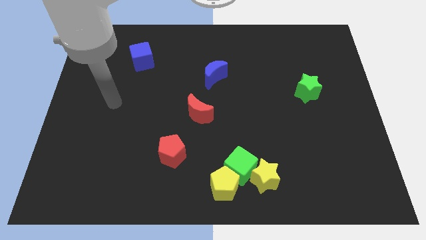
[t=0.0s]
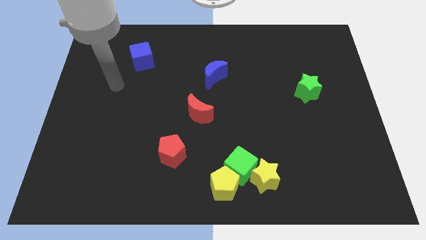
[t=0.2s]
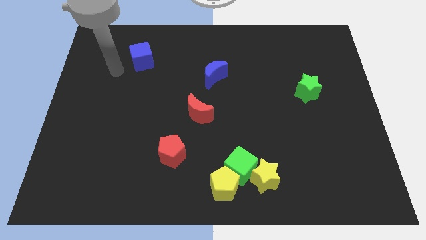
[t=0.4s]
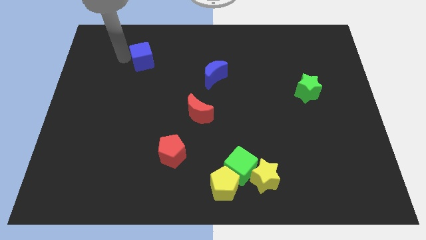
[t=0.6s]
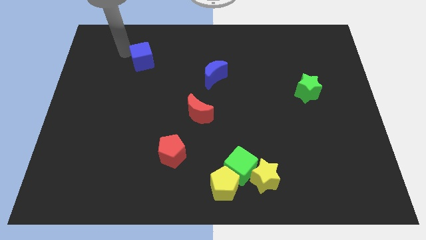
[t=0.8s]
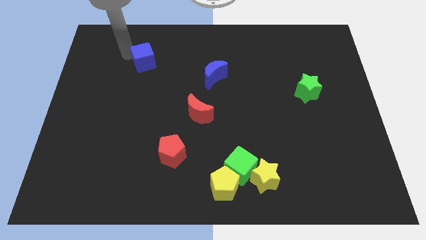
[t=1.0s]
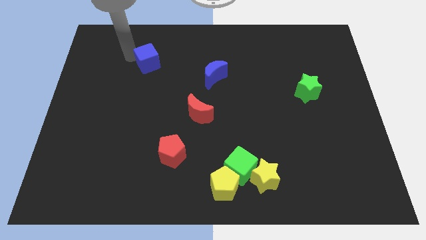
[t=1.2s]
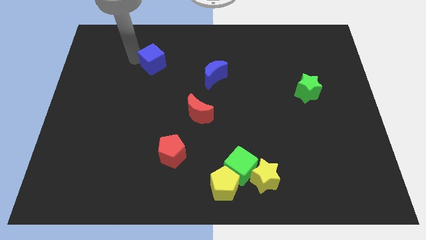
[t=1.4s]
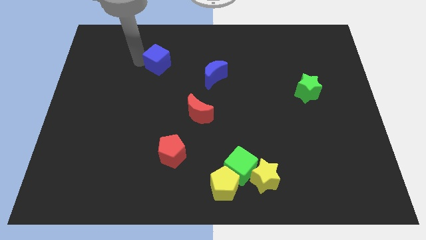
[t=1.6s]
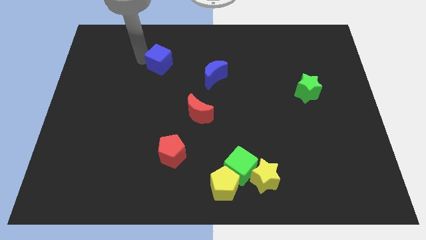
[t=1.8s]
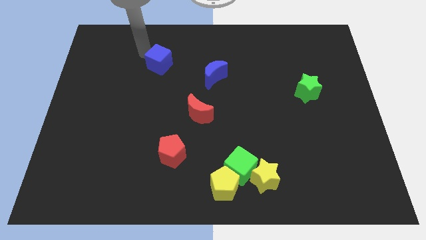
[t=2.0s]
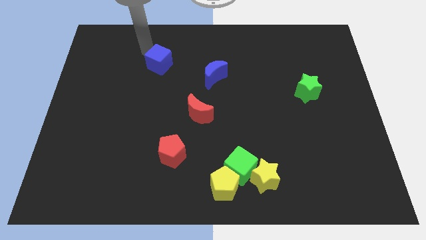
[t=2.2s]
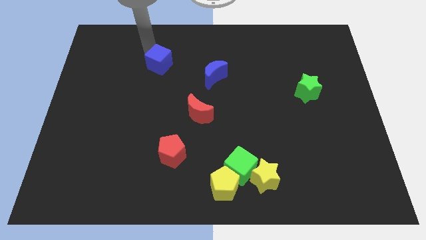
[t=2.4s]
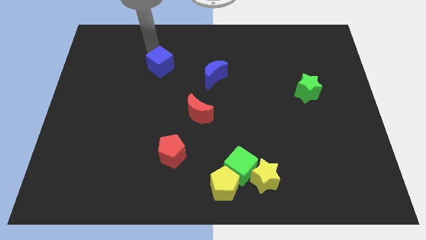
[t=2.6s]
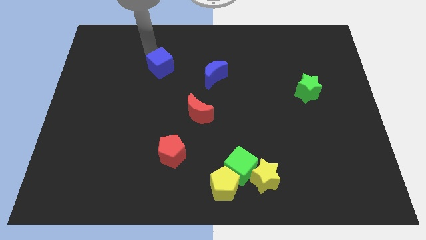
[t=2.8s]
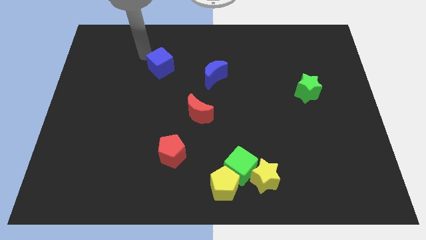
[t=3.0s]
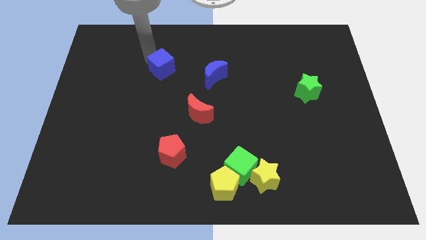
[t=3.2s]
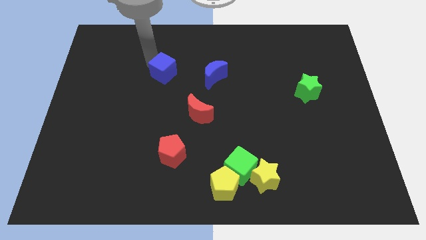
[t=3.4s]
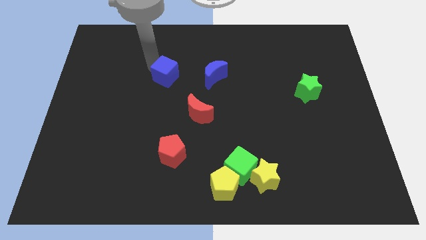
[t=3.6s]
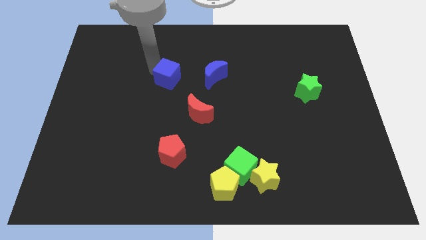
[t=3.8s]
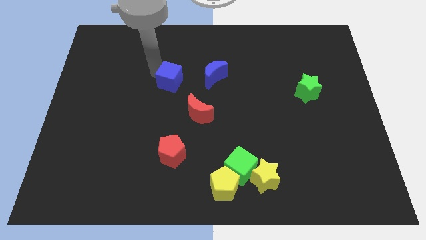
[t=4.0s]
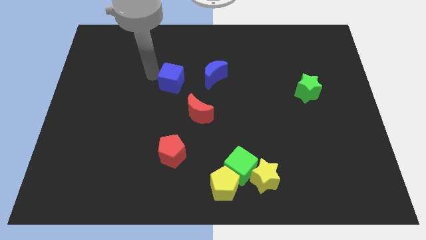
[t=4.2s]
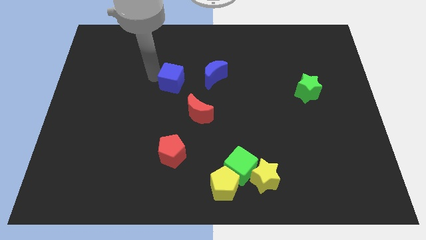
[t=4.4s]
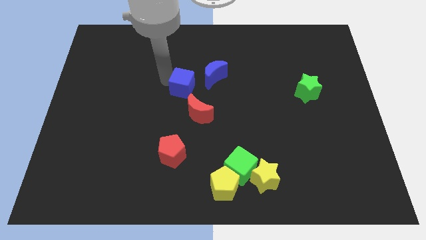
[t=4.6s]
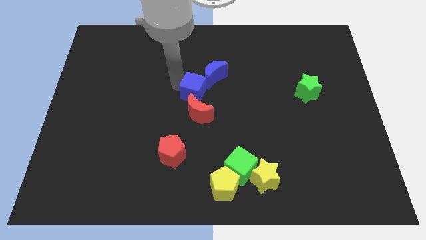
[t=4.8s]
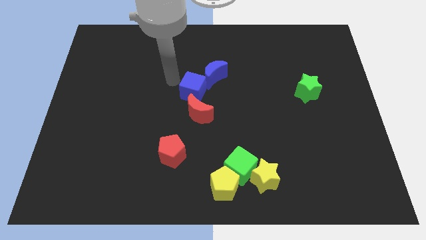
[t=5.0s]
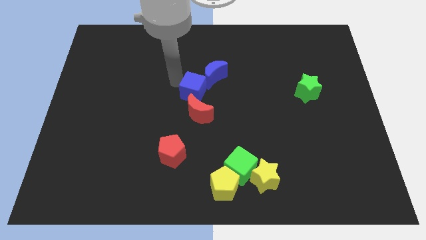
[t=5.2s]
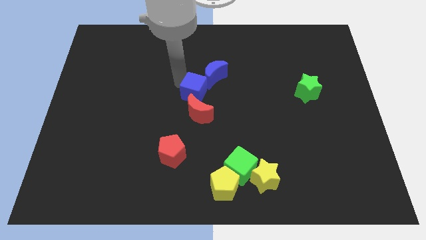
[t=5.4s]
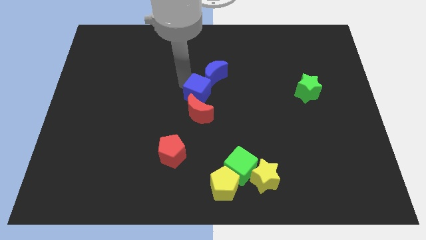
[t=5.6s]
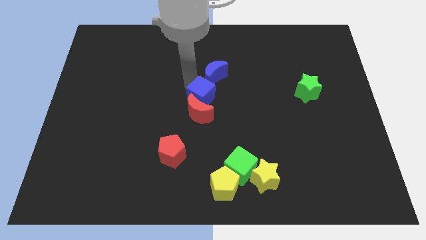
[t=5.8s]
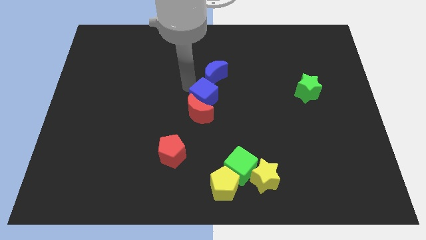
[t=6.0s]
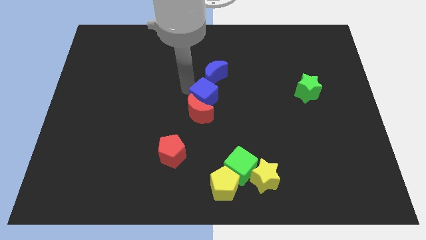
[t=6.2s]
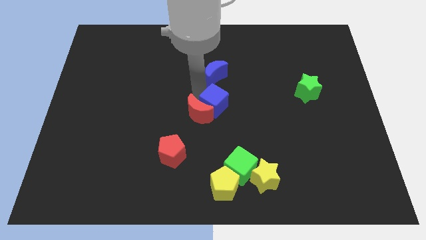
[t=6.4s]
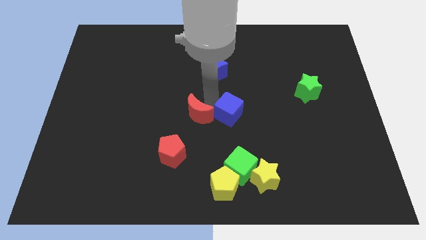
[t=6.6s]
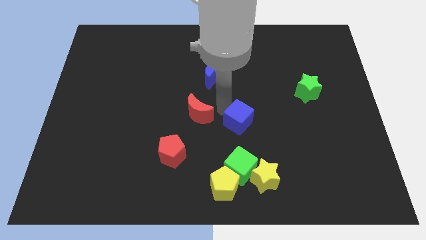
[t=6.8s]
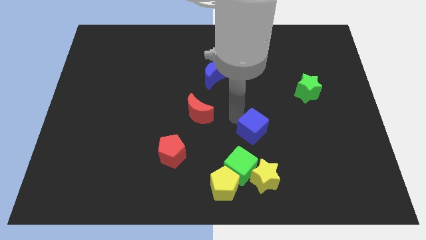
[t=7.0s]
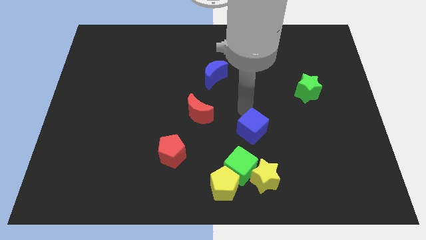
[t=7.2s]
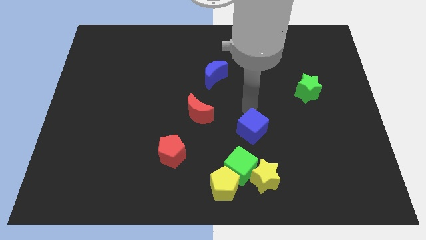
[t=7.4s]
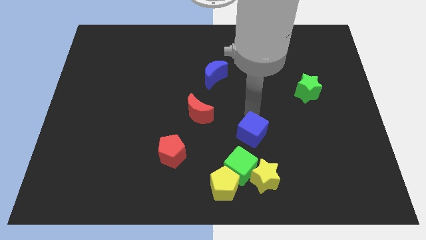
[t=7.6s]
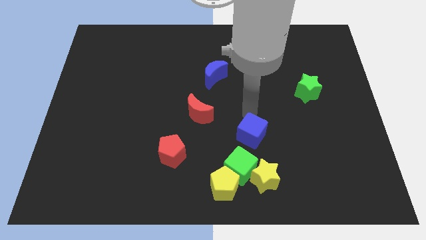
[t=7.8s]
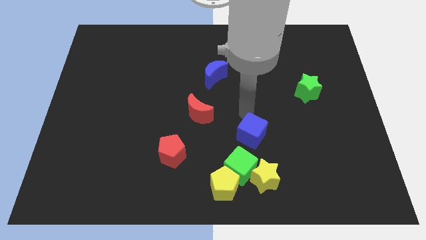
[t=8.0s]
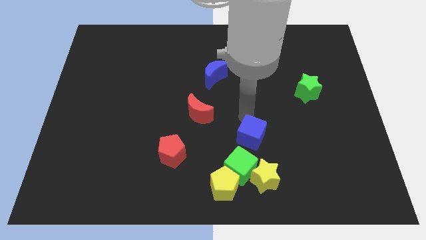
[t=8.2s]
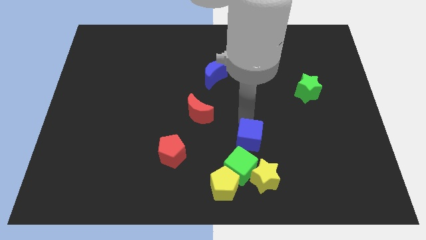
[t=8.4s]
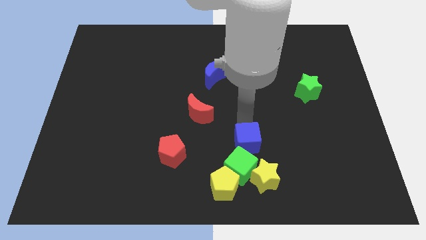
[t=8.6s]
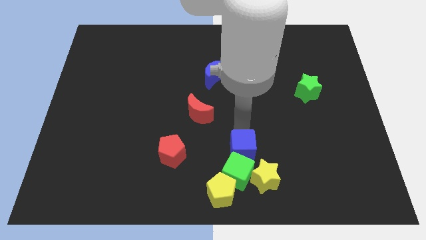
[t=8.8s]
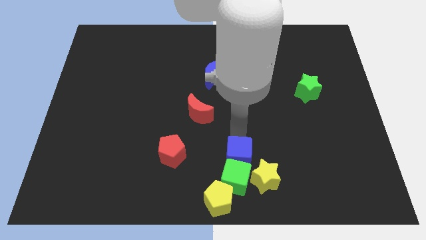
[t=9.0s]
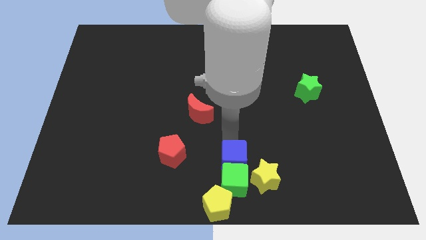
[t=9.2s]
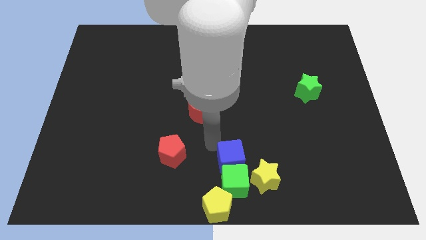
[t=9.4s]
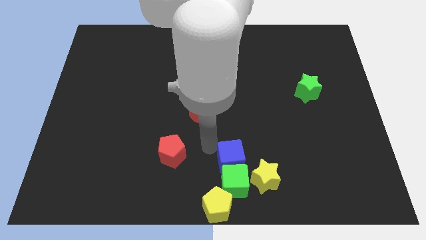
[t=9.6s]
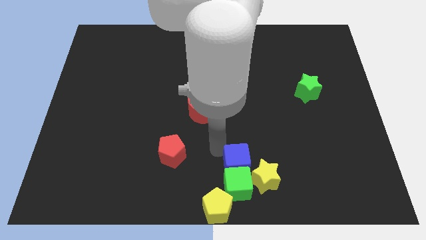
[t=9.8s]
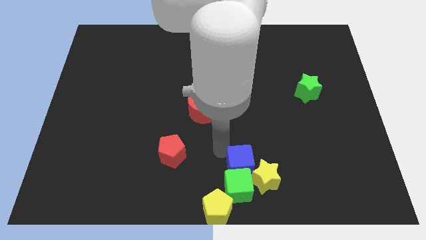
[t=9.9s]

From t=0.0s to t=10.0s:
move the blue cube next to the yellow star

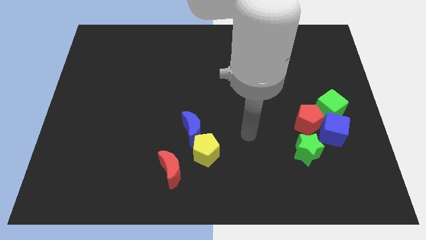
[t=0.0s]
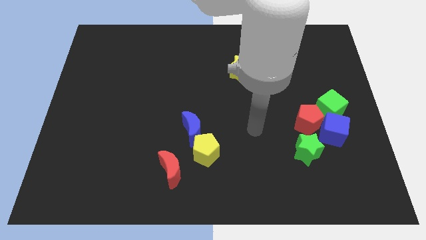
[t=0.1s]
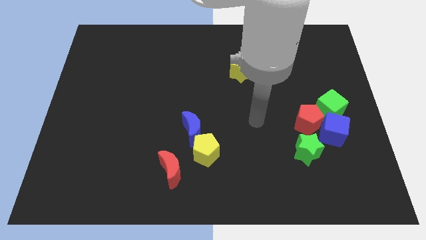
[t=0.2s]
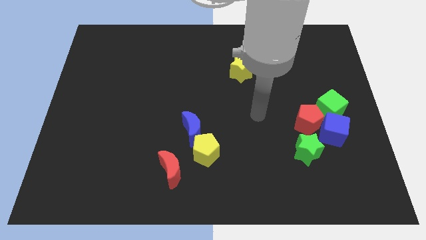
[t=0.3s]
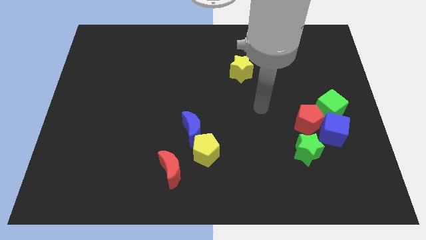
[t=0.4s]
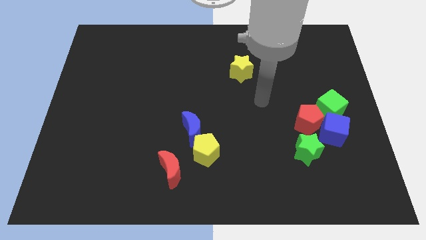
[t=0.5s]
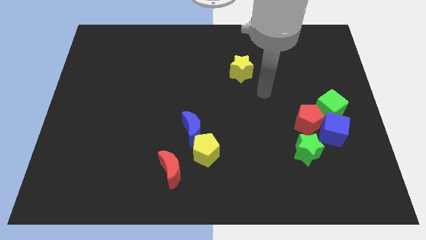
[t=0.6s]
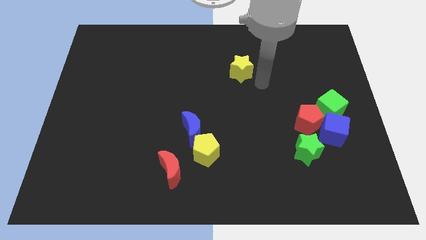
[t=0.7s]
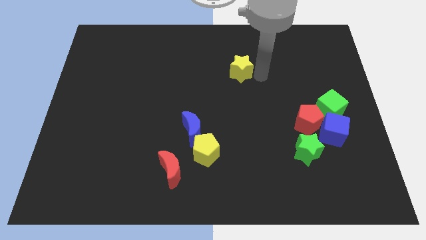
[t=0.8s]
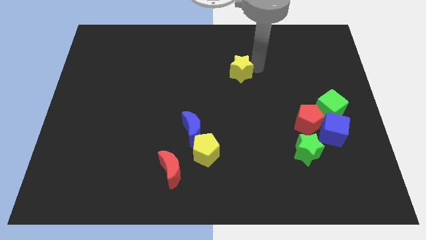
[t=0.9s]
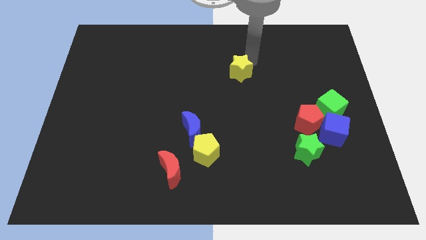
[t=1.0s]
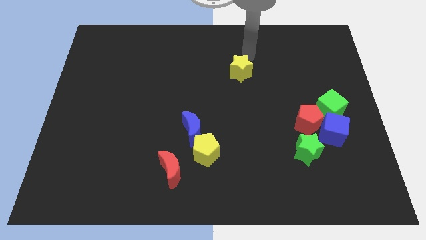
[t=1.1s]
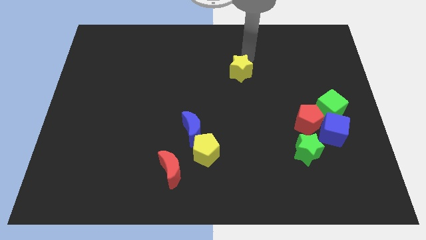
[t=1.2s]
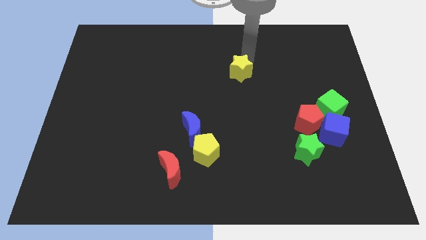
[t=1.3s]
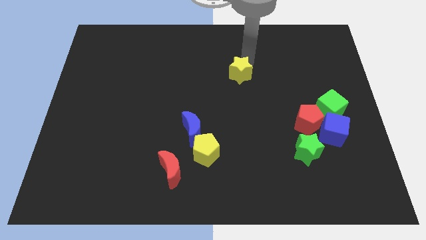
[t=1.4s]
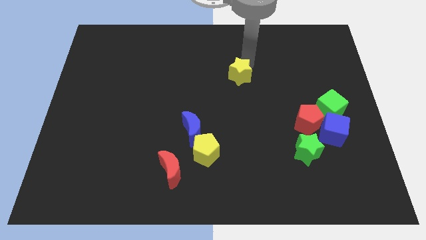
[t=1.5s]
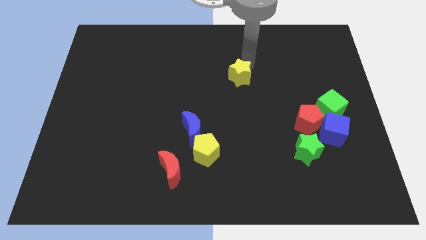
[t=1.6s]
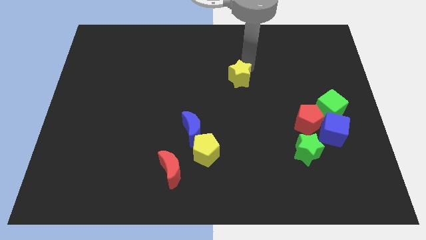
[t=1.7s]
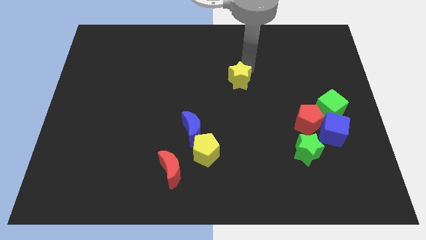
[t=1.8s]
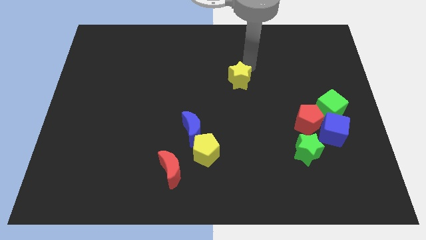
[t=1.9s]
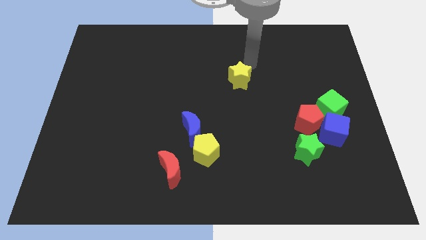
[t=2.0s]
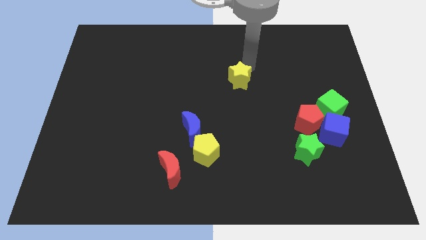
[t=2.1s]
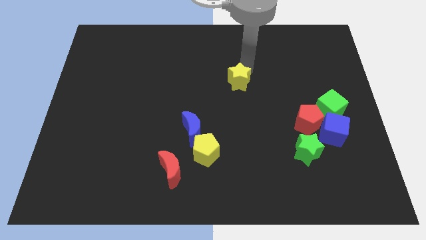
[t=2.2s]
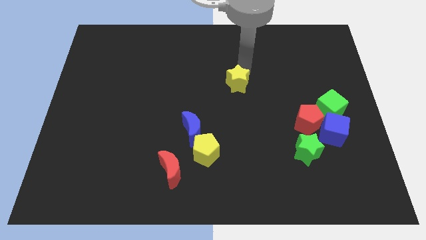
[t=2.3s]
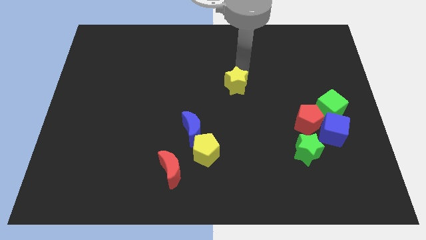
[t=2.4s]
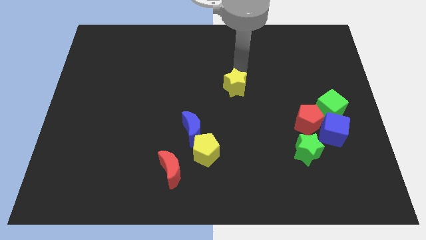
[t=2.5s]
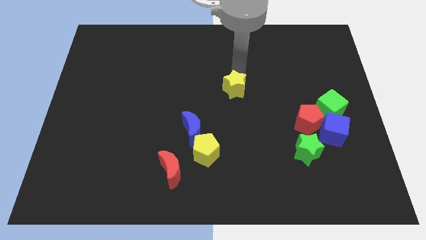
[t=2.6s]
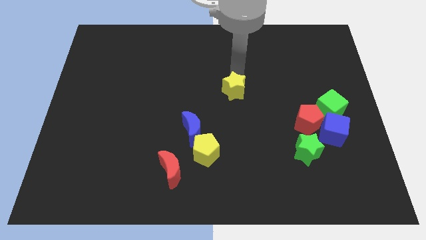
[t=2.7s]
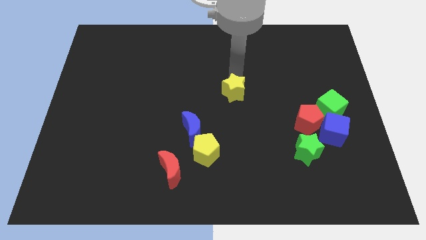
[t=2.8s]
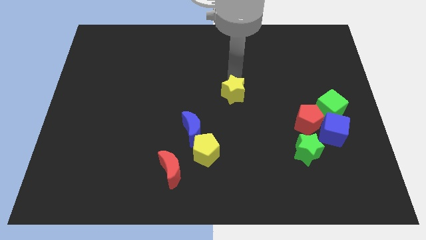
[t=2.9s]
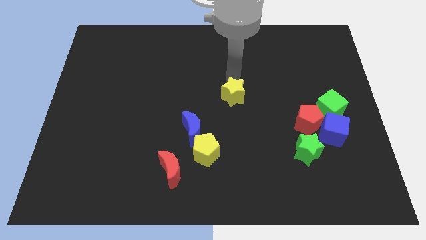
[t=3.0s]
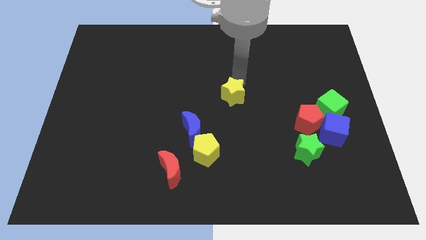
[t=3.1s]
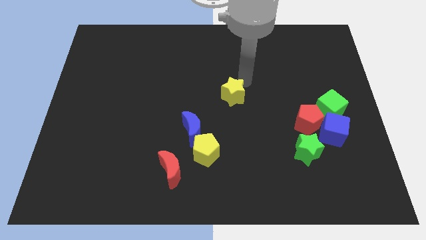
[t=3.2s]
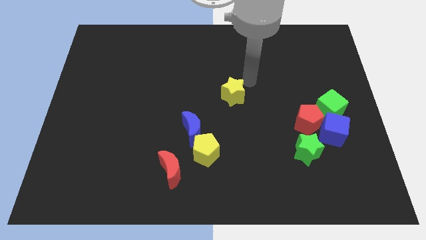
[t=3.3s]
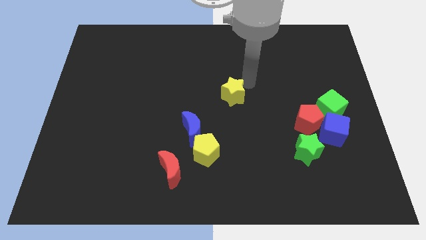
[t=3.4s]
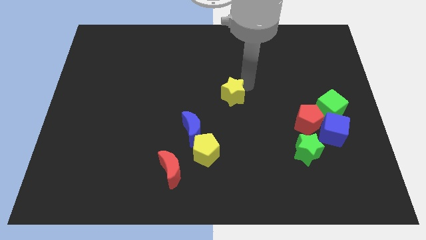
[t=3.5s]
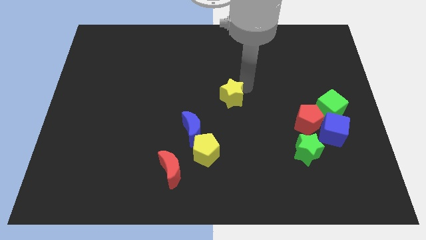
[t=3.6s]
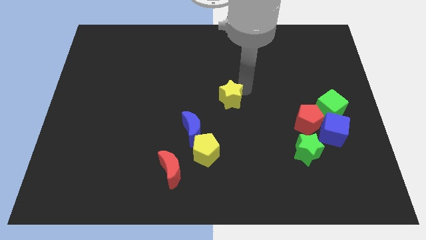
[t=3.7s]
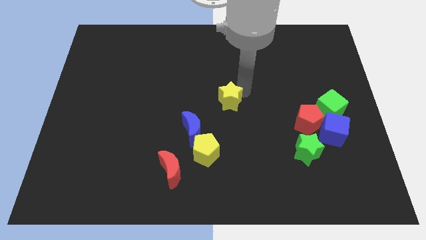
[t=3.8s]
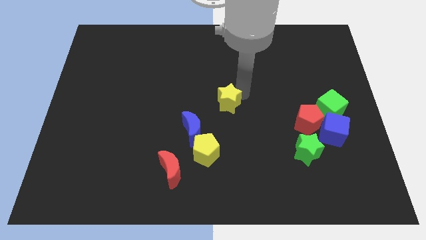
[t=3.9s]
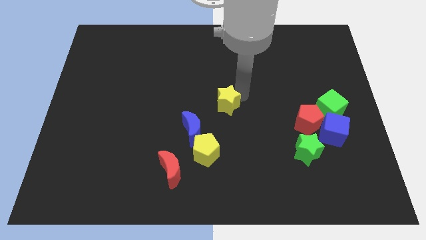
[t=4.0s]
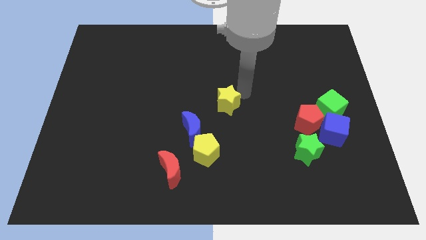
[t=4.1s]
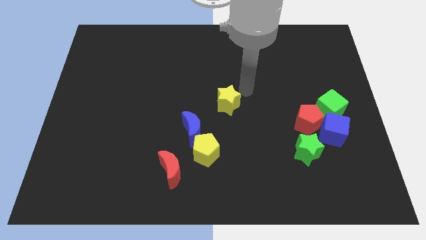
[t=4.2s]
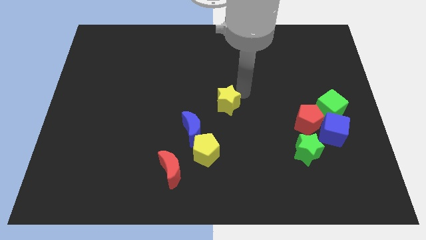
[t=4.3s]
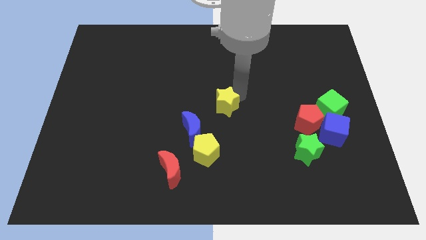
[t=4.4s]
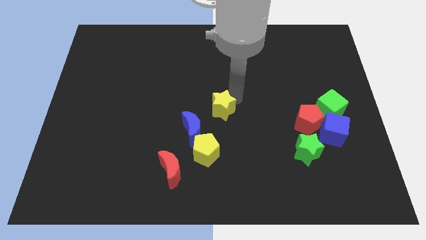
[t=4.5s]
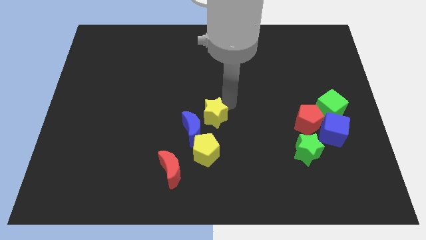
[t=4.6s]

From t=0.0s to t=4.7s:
move the yellow star to the blue moon
